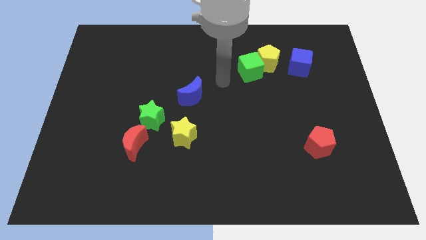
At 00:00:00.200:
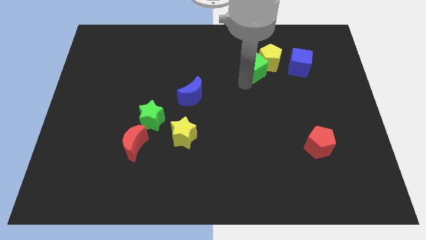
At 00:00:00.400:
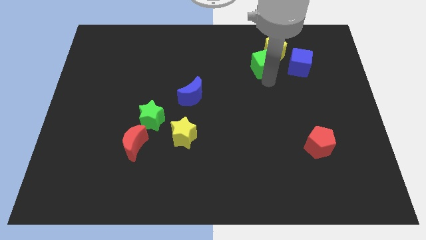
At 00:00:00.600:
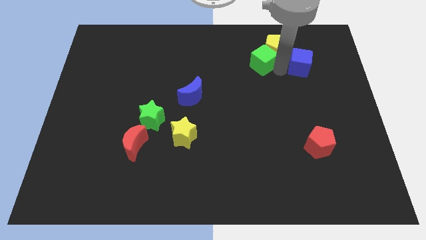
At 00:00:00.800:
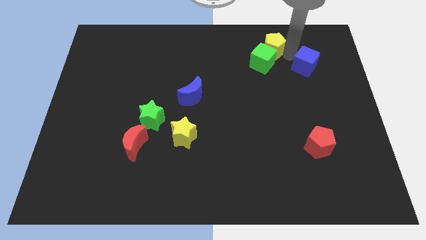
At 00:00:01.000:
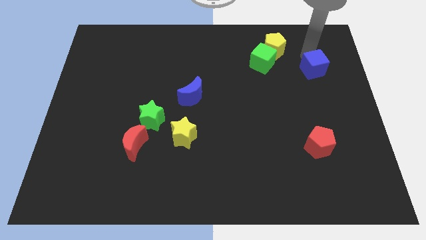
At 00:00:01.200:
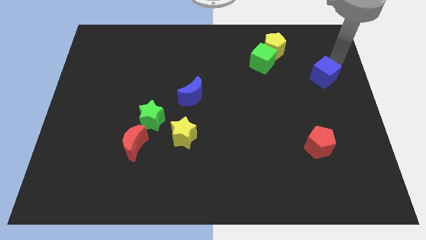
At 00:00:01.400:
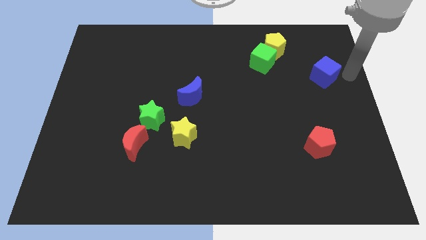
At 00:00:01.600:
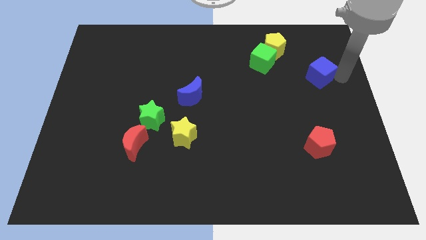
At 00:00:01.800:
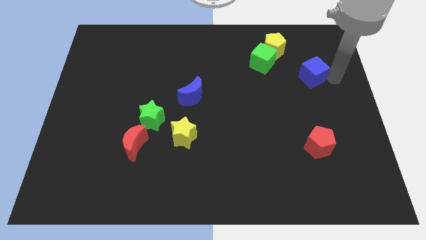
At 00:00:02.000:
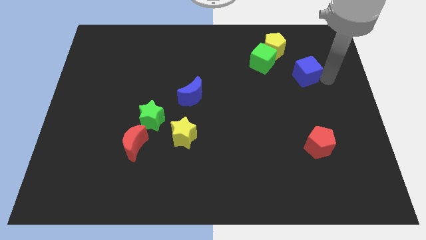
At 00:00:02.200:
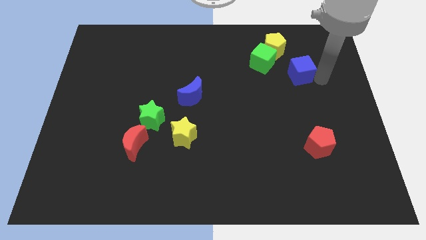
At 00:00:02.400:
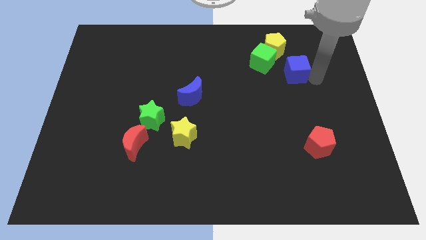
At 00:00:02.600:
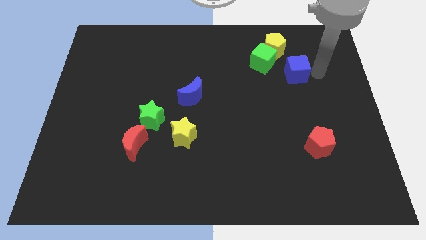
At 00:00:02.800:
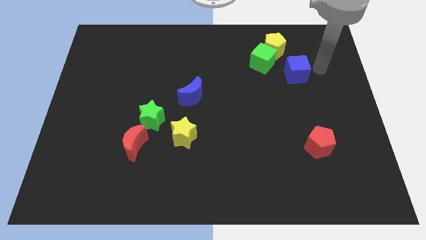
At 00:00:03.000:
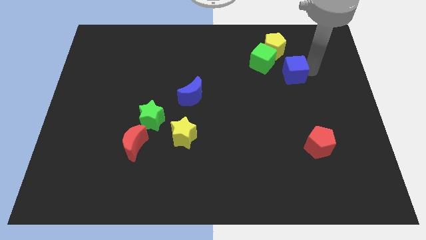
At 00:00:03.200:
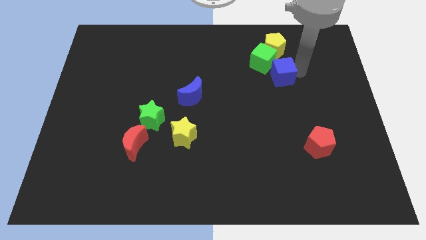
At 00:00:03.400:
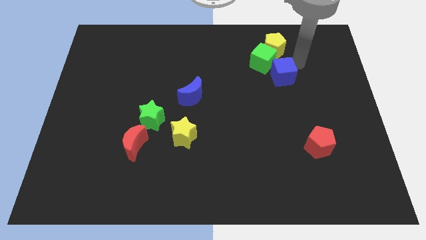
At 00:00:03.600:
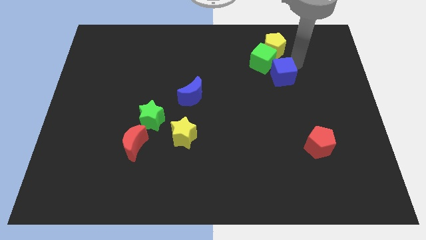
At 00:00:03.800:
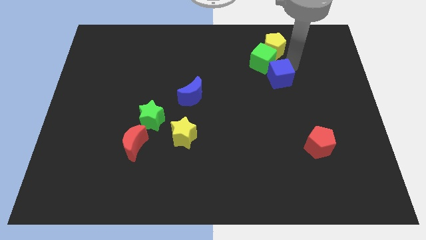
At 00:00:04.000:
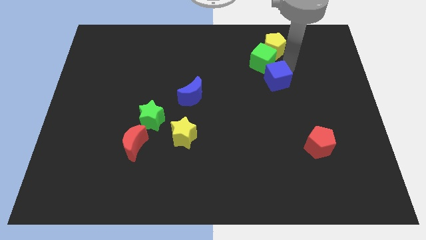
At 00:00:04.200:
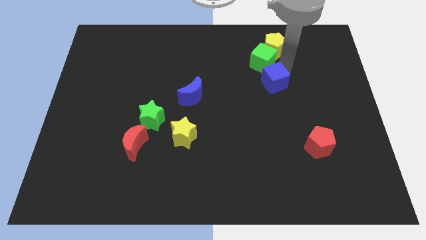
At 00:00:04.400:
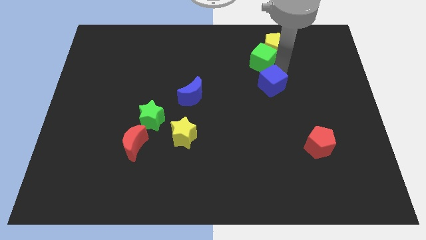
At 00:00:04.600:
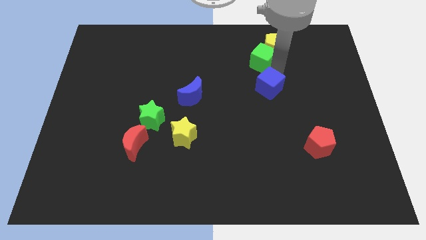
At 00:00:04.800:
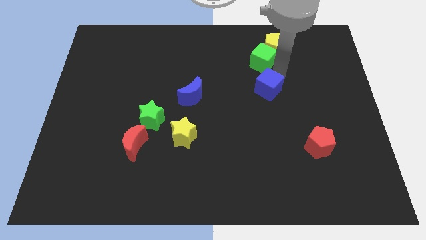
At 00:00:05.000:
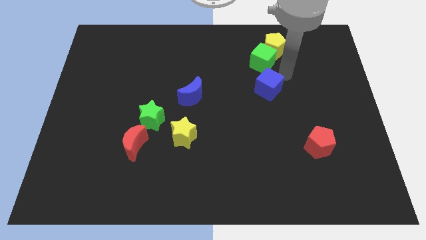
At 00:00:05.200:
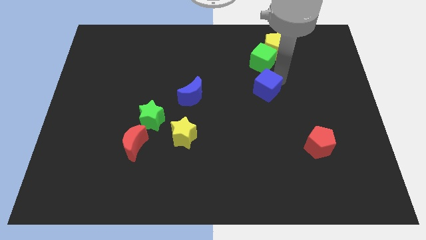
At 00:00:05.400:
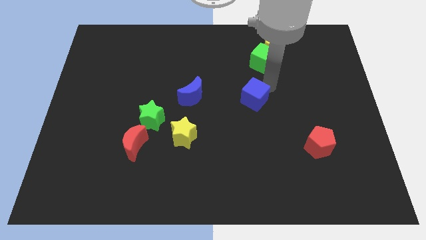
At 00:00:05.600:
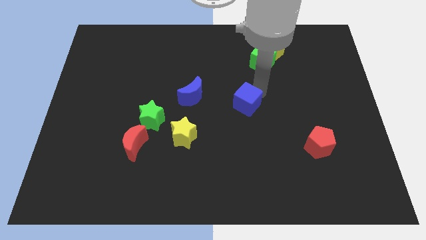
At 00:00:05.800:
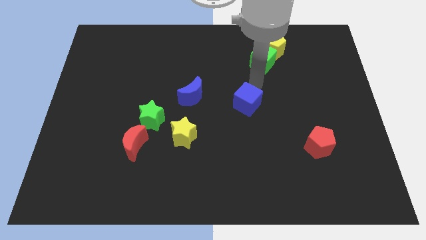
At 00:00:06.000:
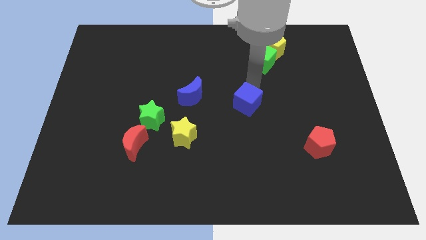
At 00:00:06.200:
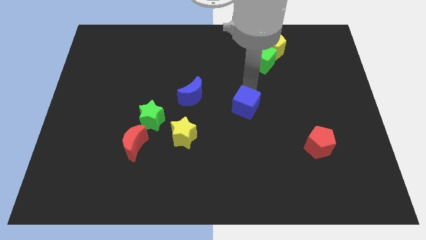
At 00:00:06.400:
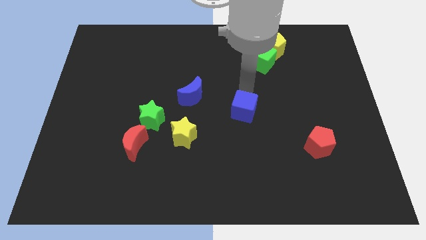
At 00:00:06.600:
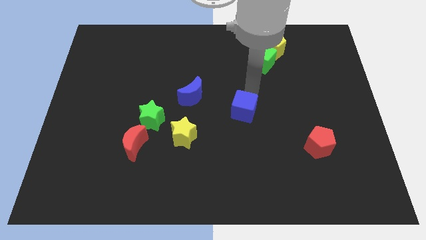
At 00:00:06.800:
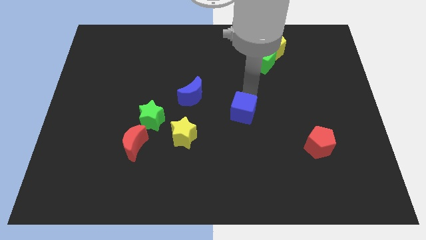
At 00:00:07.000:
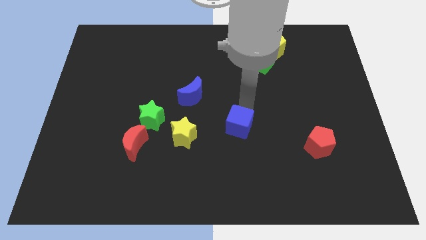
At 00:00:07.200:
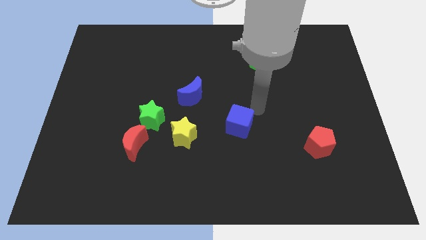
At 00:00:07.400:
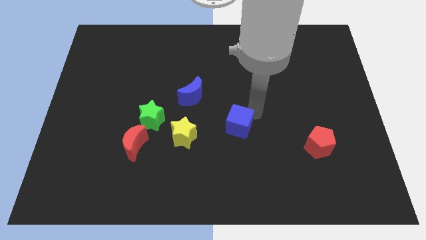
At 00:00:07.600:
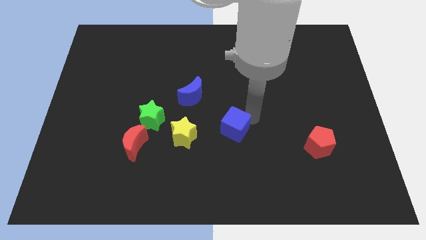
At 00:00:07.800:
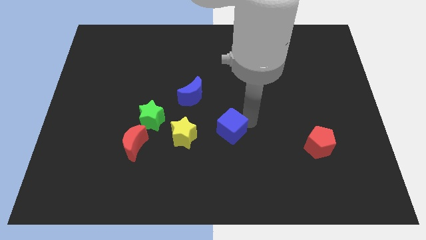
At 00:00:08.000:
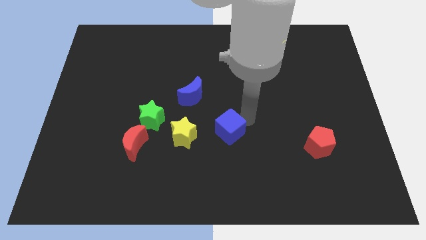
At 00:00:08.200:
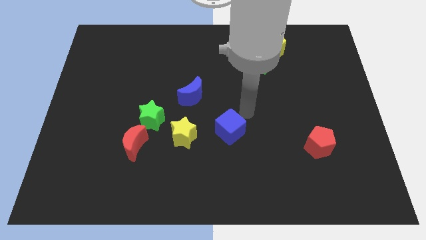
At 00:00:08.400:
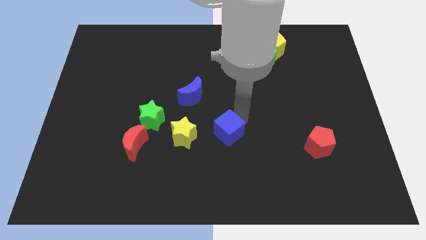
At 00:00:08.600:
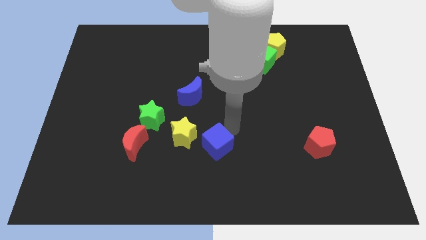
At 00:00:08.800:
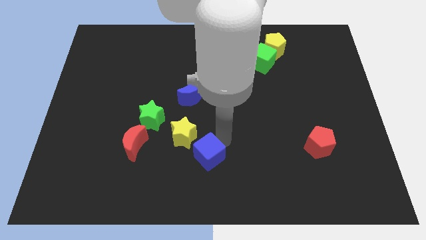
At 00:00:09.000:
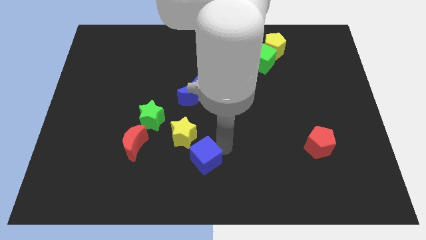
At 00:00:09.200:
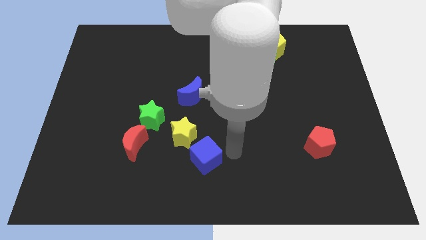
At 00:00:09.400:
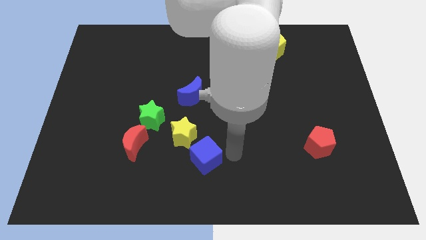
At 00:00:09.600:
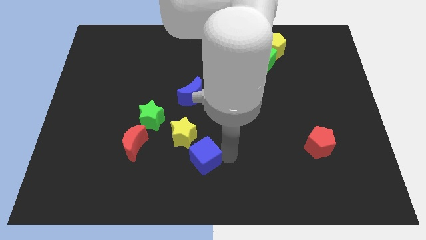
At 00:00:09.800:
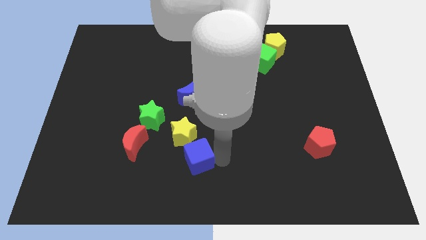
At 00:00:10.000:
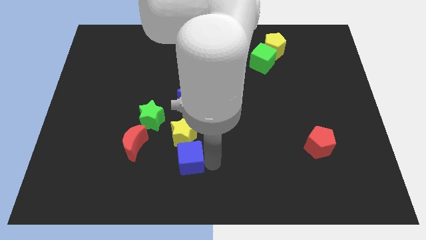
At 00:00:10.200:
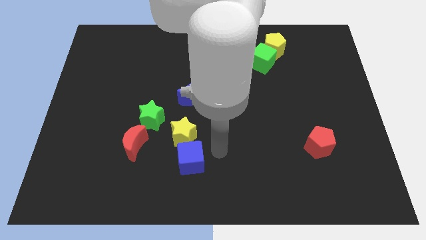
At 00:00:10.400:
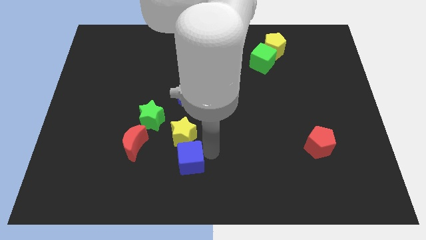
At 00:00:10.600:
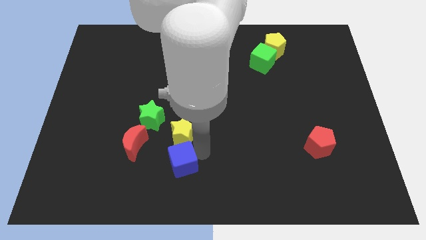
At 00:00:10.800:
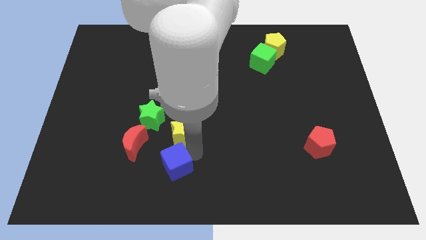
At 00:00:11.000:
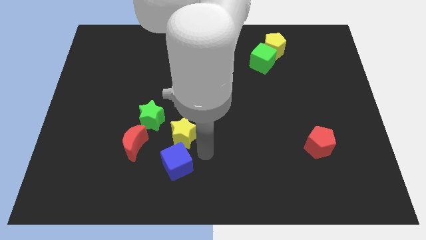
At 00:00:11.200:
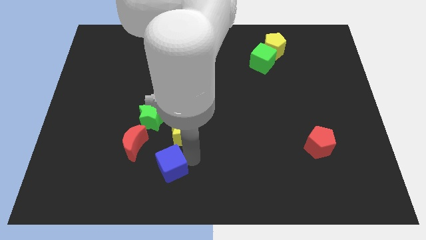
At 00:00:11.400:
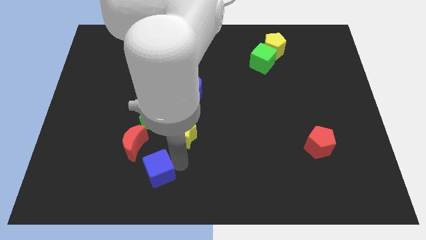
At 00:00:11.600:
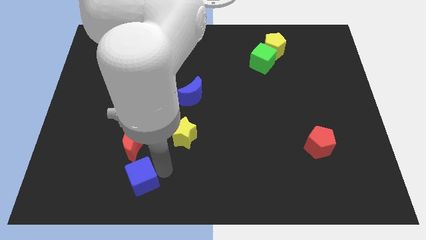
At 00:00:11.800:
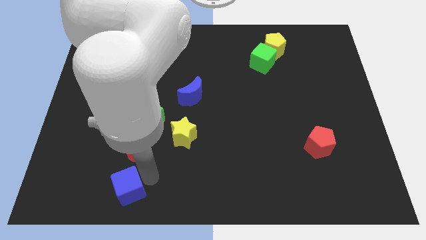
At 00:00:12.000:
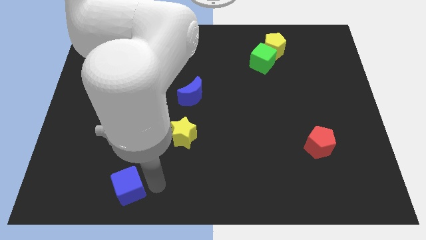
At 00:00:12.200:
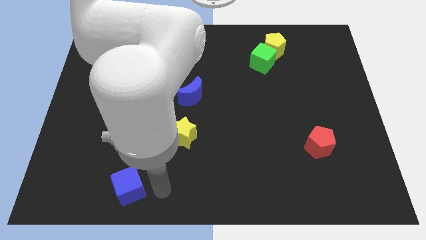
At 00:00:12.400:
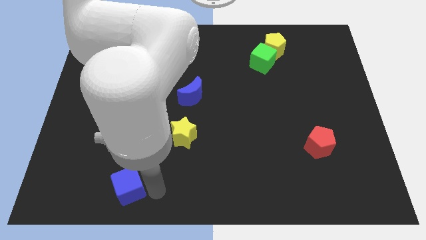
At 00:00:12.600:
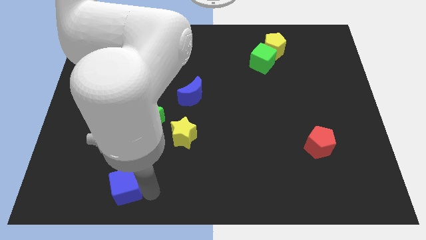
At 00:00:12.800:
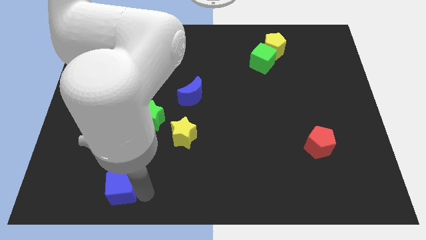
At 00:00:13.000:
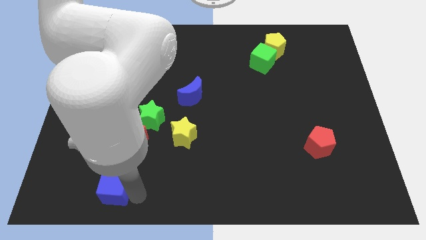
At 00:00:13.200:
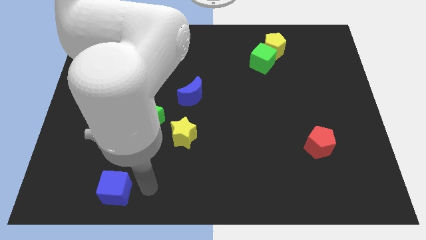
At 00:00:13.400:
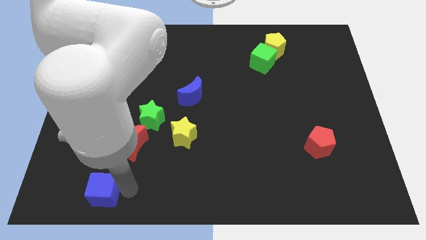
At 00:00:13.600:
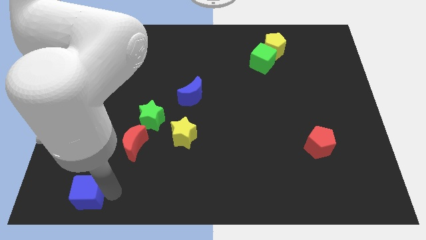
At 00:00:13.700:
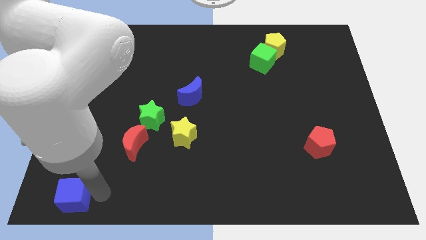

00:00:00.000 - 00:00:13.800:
push the blue cube to the bottom left corner

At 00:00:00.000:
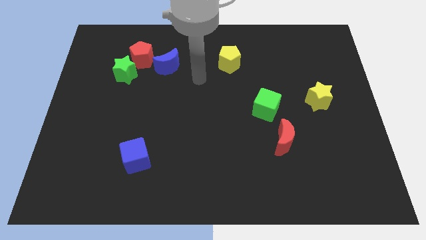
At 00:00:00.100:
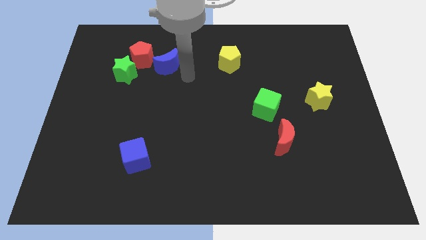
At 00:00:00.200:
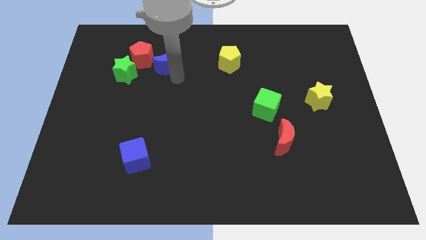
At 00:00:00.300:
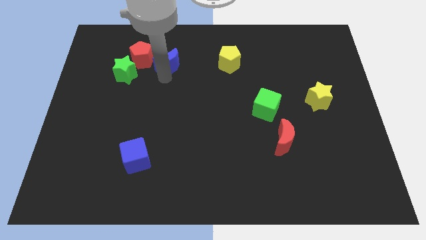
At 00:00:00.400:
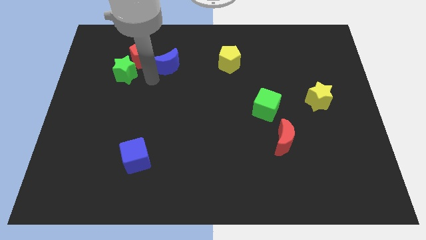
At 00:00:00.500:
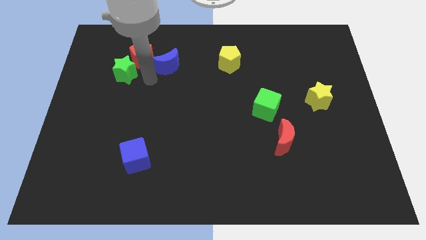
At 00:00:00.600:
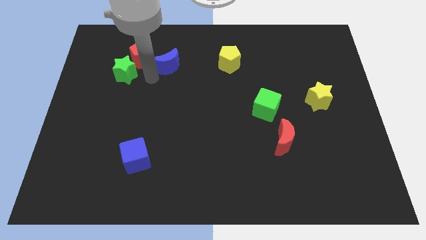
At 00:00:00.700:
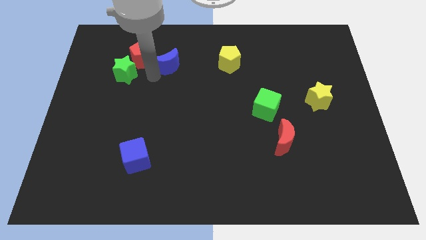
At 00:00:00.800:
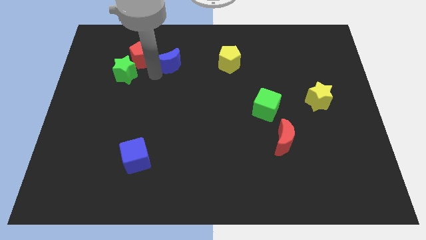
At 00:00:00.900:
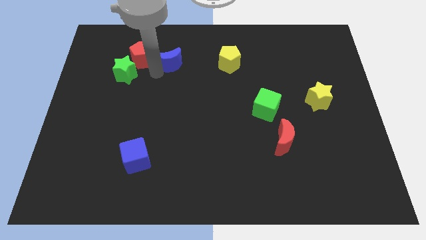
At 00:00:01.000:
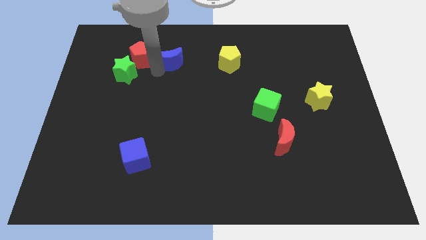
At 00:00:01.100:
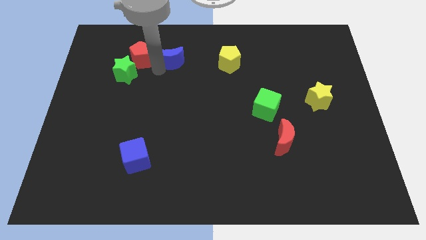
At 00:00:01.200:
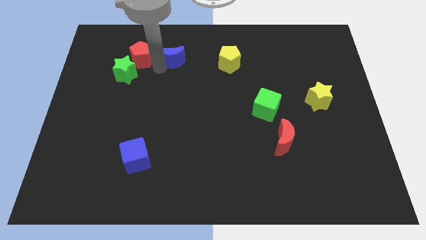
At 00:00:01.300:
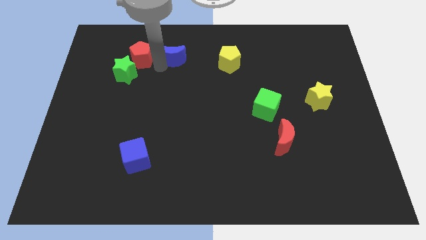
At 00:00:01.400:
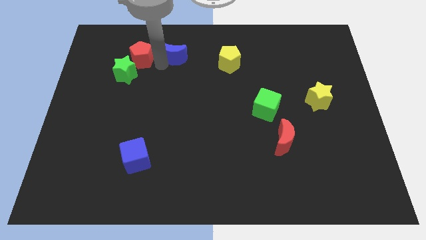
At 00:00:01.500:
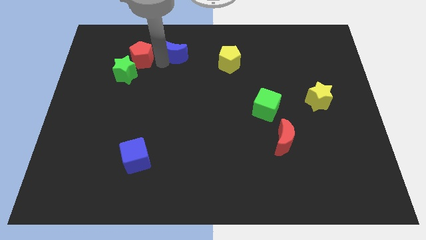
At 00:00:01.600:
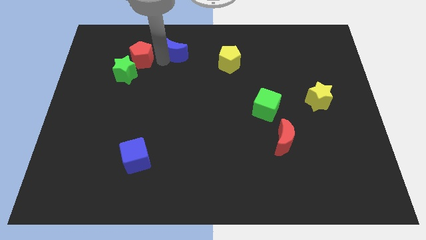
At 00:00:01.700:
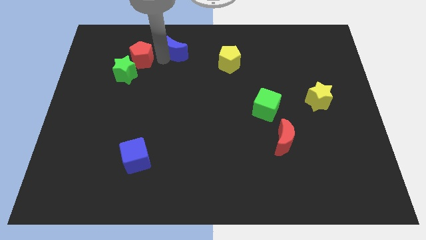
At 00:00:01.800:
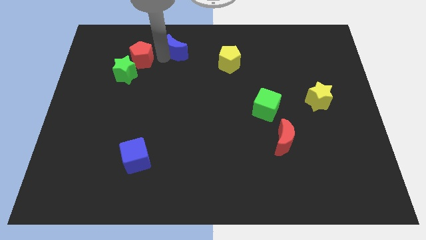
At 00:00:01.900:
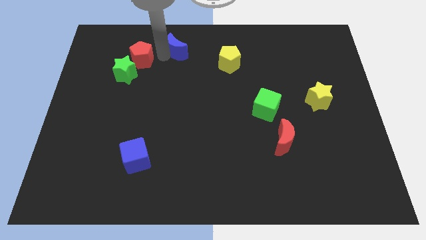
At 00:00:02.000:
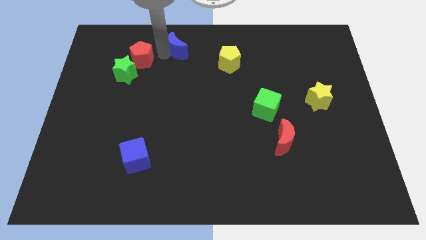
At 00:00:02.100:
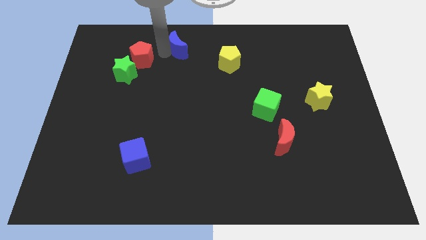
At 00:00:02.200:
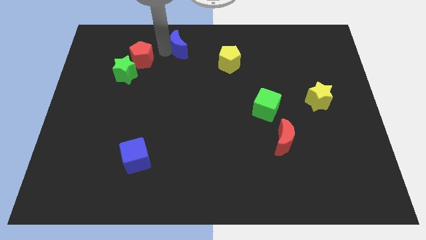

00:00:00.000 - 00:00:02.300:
put the blue moon to the towards your base
